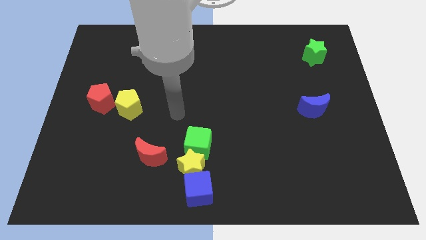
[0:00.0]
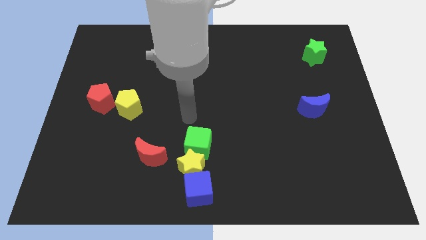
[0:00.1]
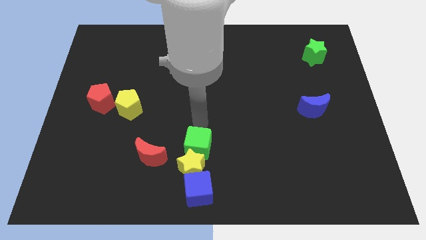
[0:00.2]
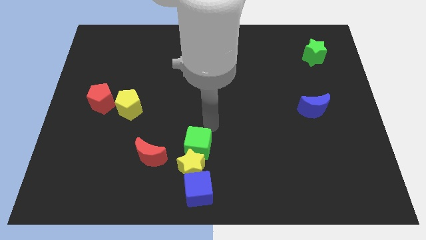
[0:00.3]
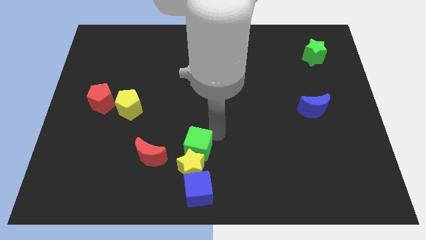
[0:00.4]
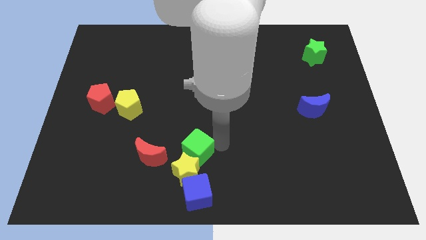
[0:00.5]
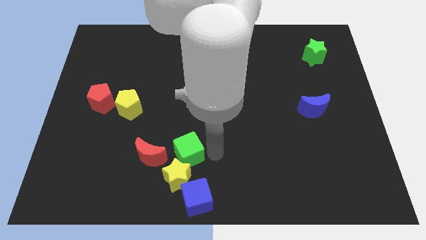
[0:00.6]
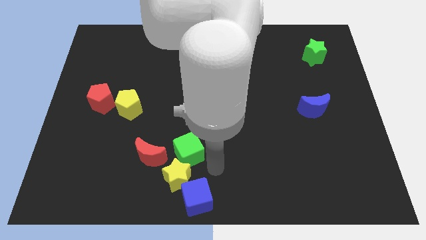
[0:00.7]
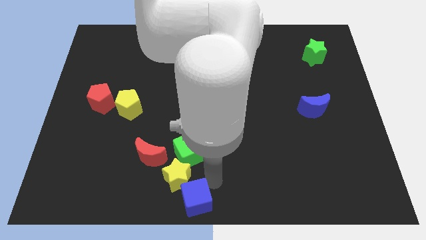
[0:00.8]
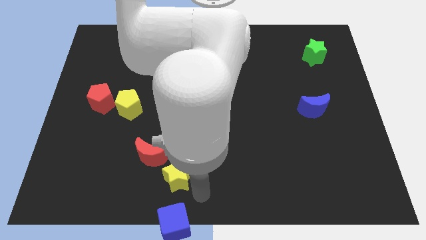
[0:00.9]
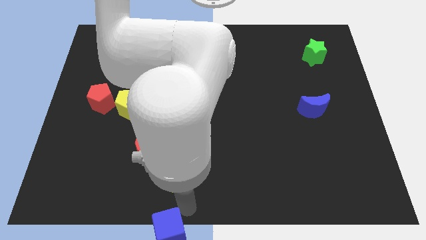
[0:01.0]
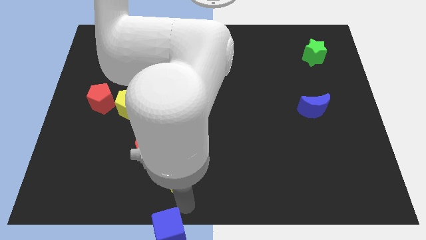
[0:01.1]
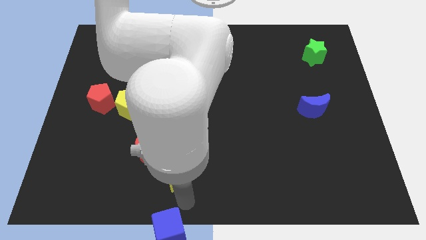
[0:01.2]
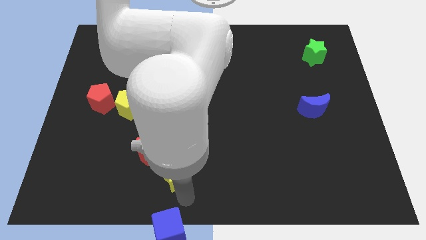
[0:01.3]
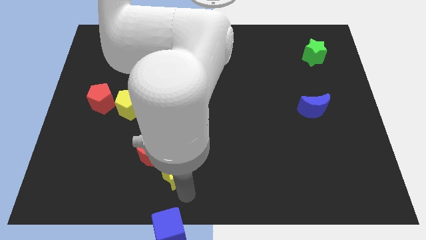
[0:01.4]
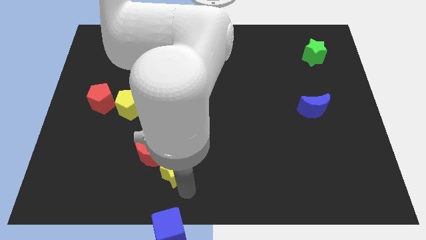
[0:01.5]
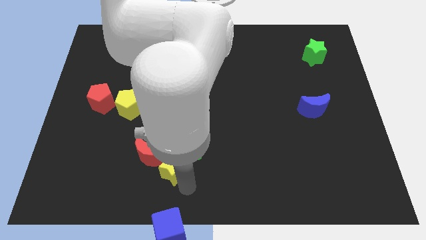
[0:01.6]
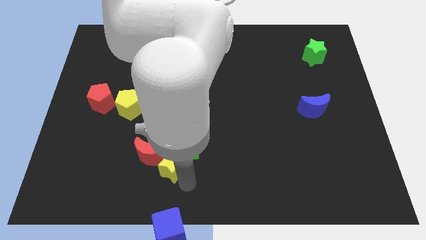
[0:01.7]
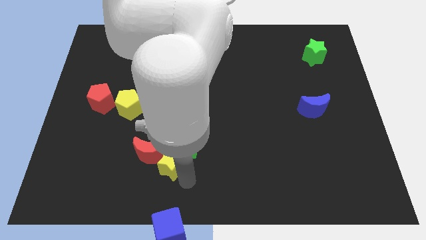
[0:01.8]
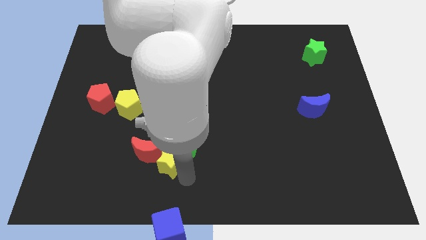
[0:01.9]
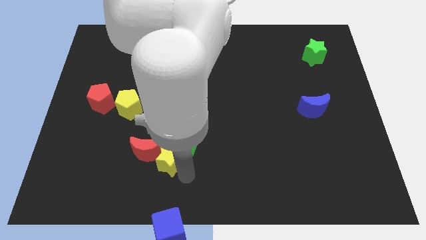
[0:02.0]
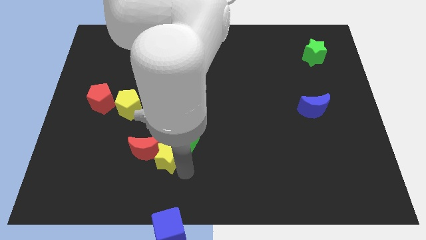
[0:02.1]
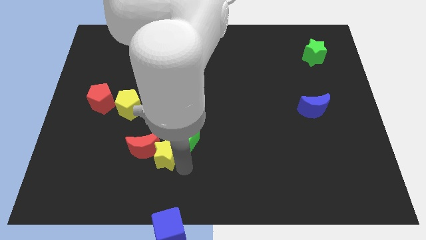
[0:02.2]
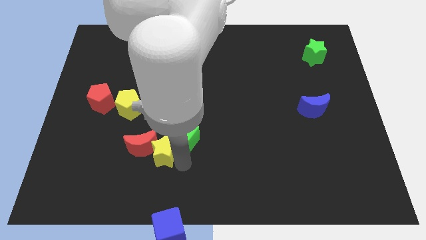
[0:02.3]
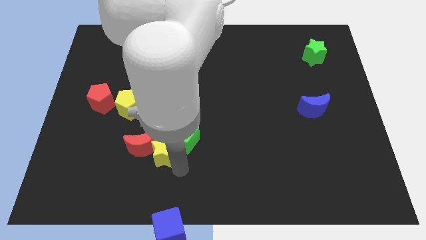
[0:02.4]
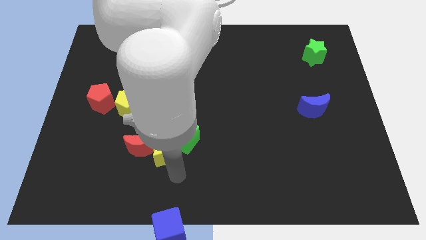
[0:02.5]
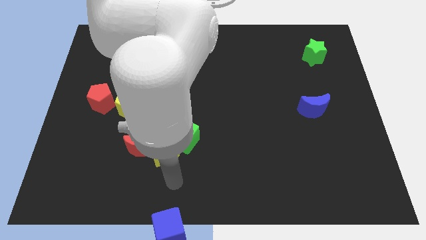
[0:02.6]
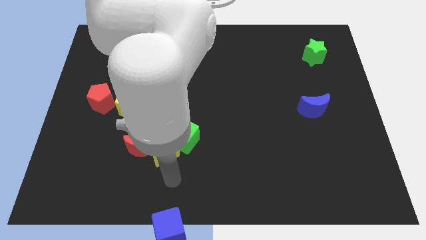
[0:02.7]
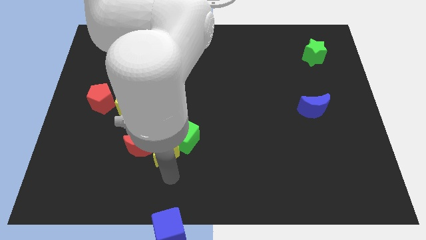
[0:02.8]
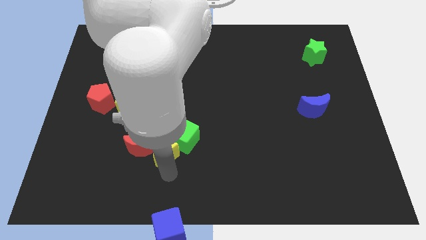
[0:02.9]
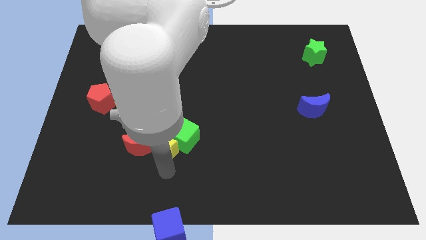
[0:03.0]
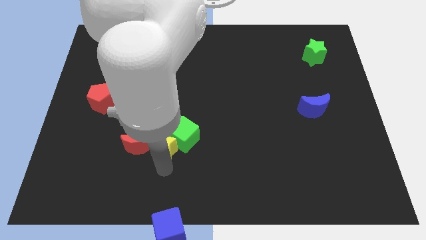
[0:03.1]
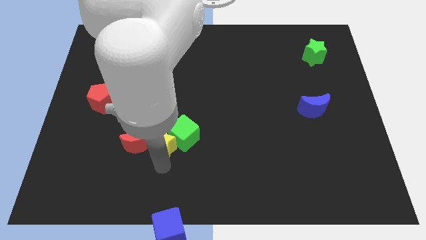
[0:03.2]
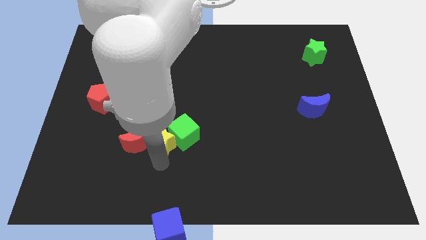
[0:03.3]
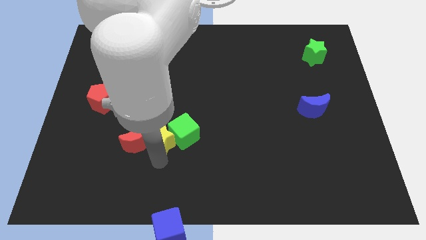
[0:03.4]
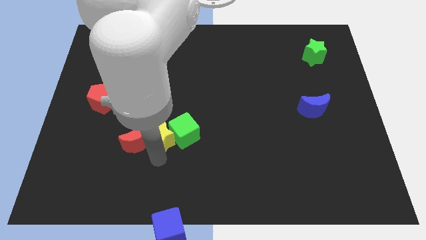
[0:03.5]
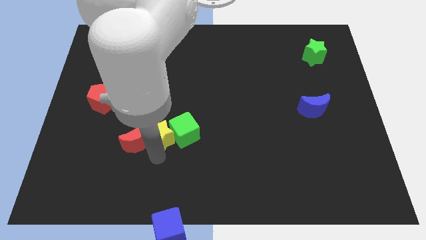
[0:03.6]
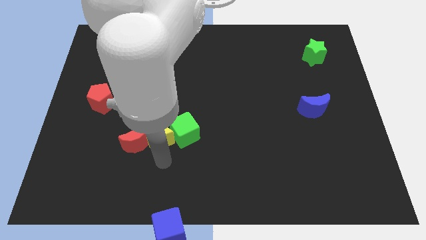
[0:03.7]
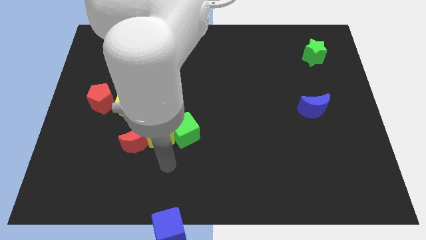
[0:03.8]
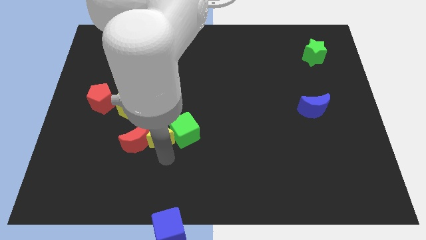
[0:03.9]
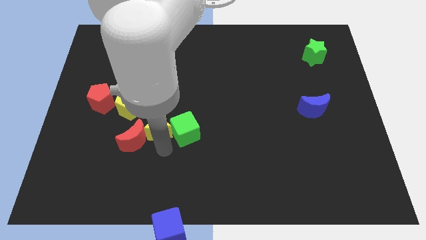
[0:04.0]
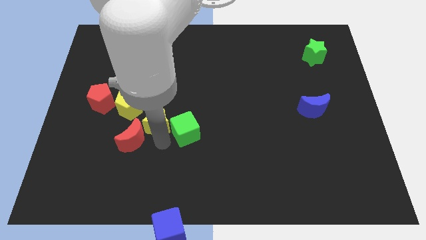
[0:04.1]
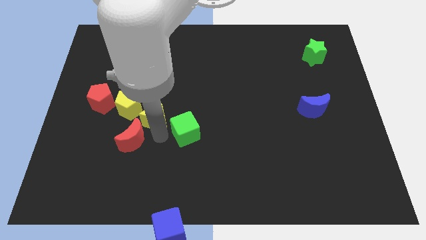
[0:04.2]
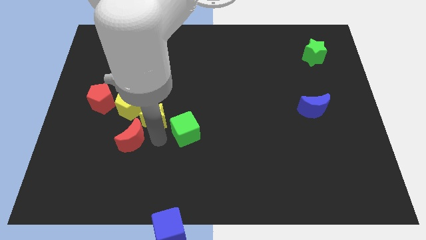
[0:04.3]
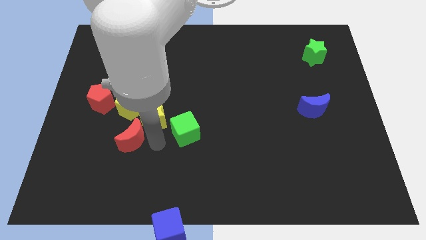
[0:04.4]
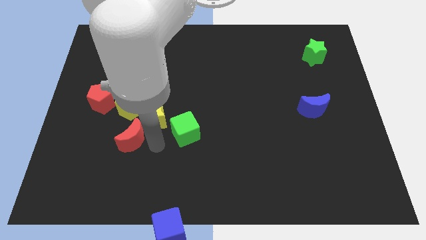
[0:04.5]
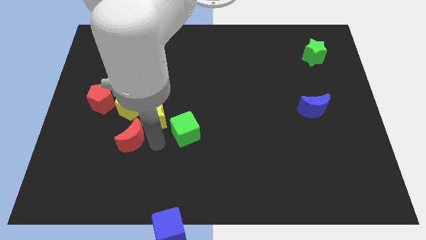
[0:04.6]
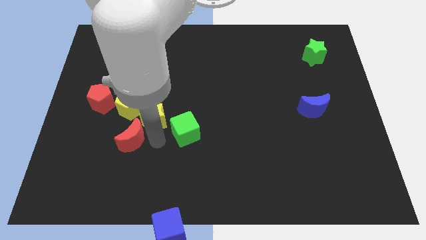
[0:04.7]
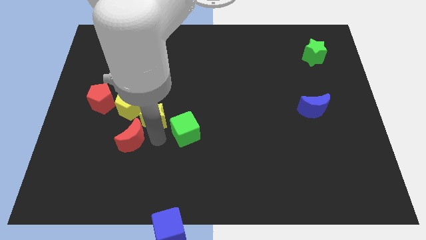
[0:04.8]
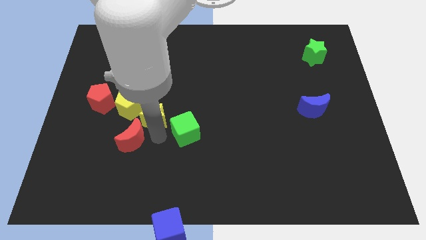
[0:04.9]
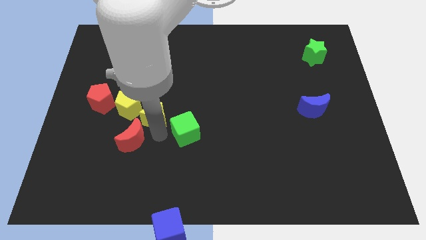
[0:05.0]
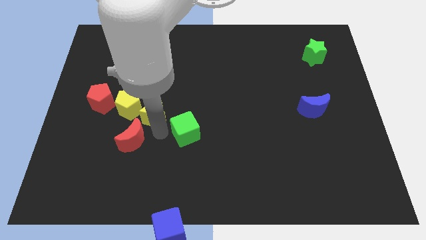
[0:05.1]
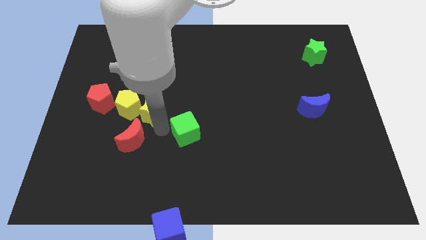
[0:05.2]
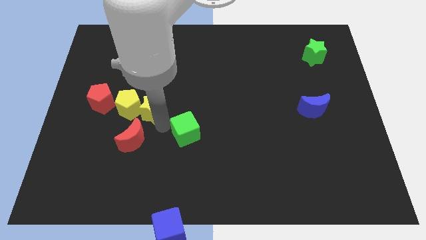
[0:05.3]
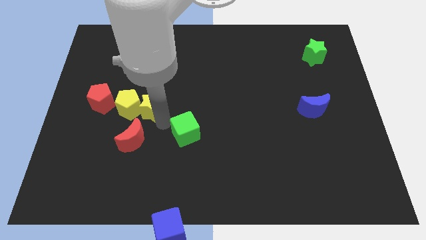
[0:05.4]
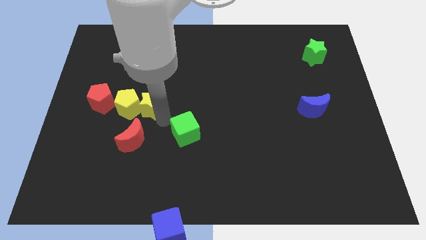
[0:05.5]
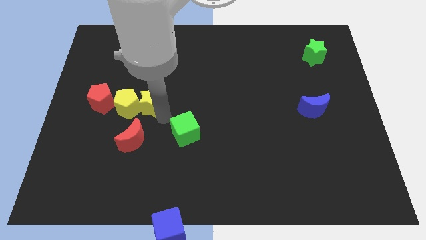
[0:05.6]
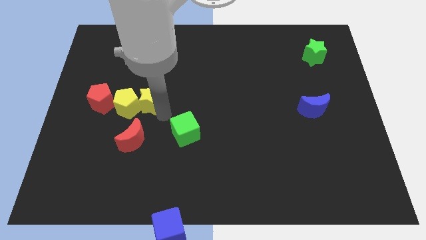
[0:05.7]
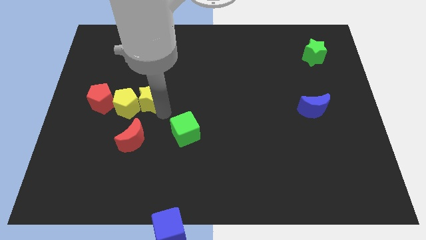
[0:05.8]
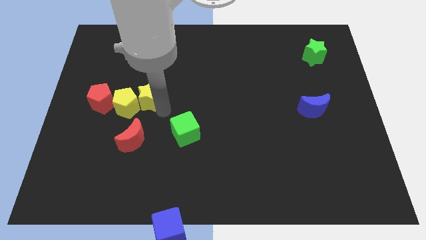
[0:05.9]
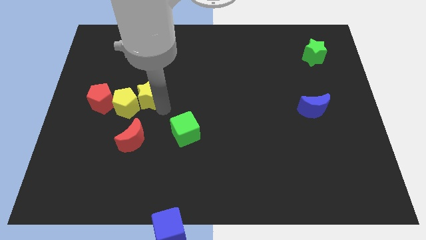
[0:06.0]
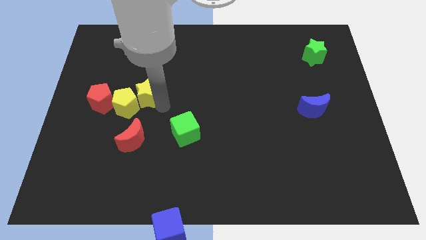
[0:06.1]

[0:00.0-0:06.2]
slide the yellow star up and left

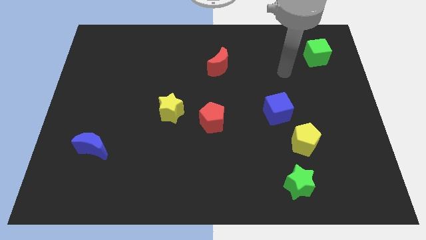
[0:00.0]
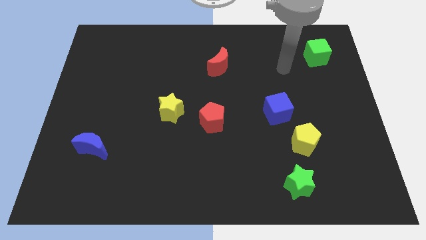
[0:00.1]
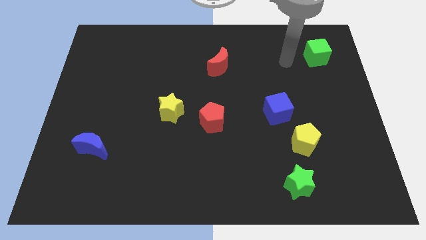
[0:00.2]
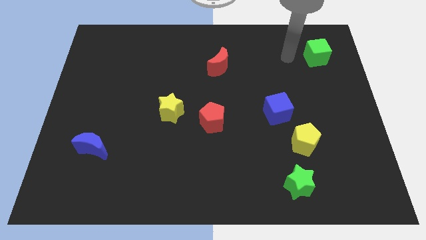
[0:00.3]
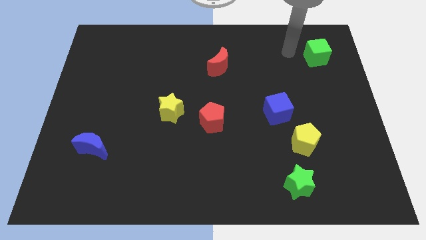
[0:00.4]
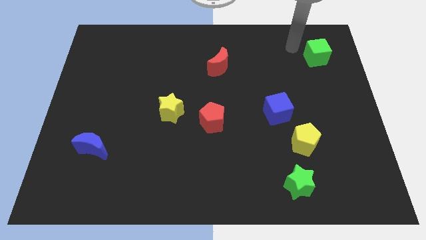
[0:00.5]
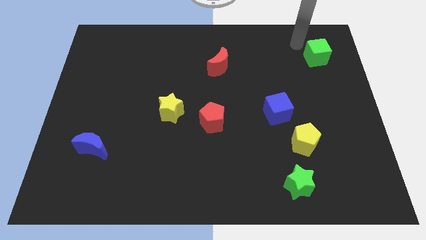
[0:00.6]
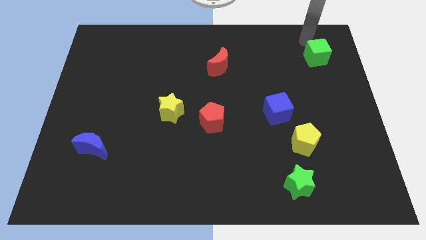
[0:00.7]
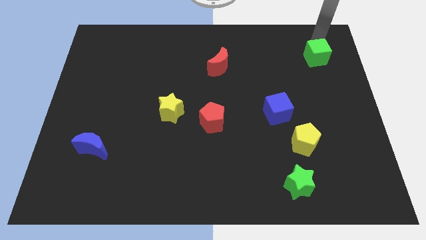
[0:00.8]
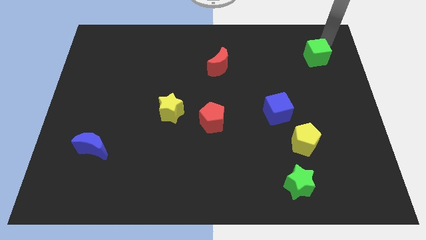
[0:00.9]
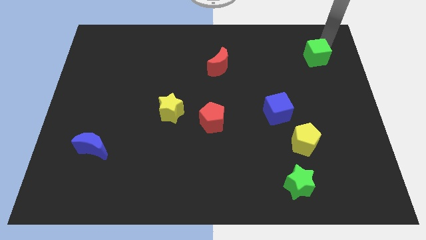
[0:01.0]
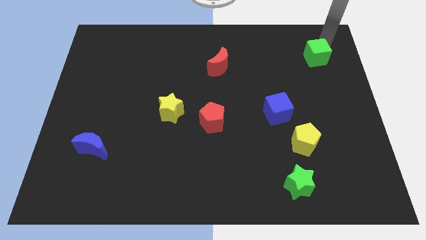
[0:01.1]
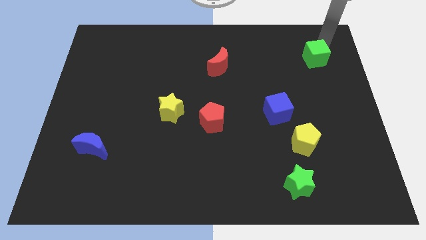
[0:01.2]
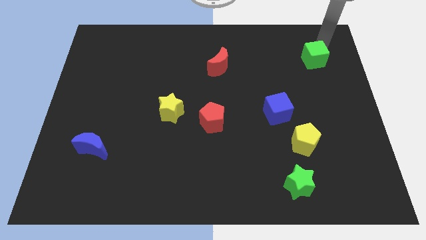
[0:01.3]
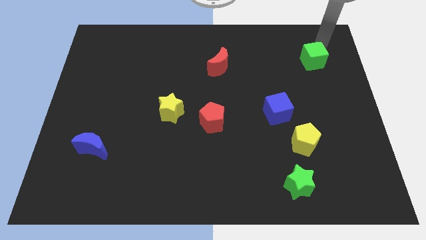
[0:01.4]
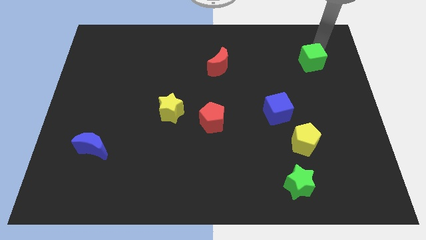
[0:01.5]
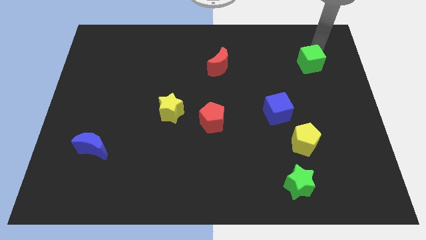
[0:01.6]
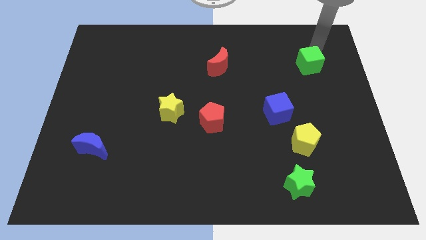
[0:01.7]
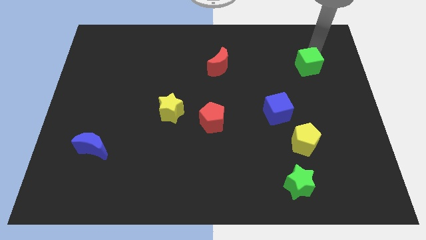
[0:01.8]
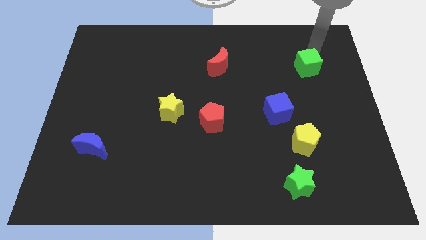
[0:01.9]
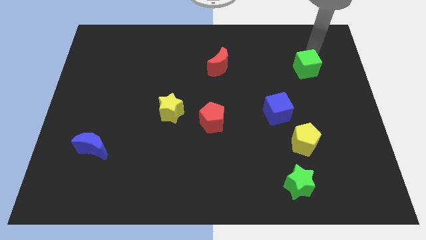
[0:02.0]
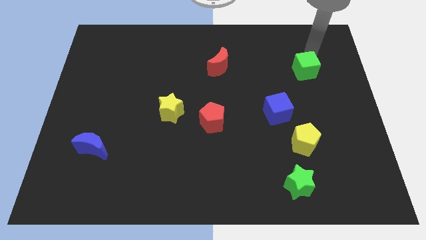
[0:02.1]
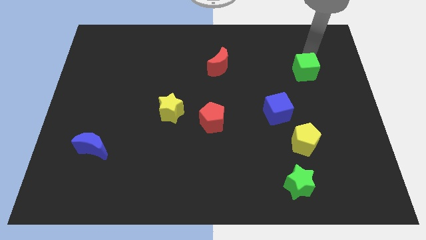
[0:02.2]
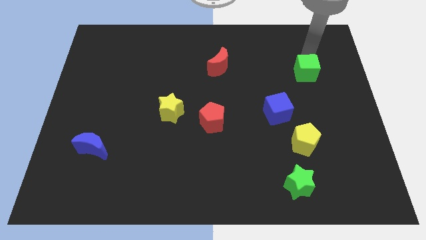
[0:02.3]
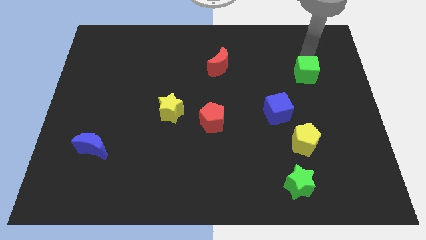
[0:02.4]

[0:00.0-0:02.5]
push the green cube downwards and to the left a bit
